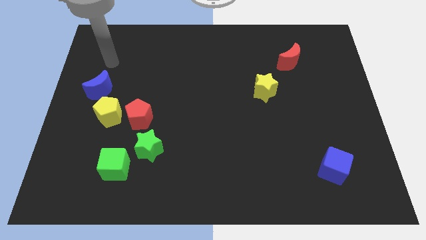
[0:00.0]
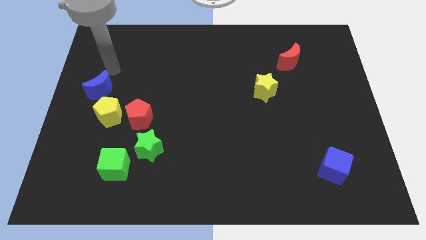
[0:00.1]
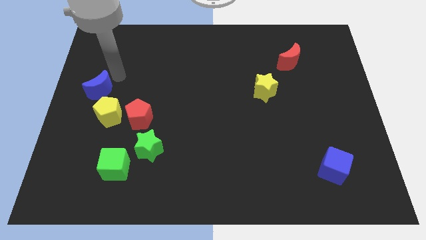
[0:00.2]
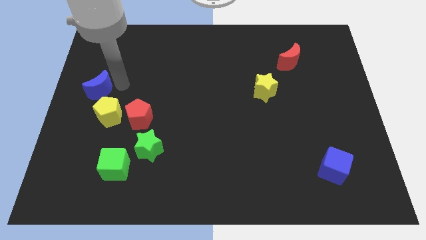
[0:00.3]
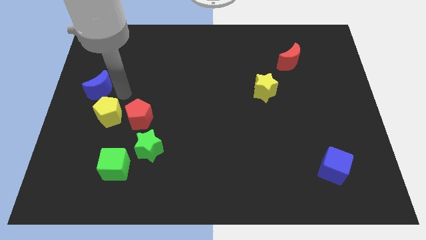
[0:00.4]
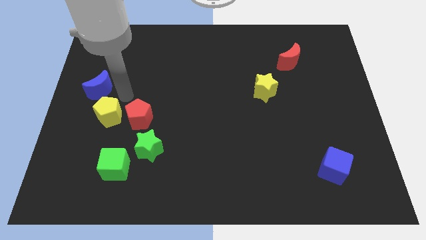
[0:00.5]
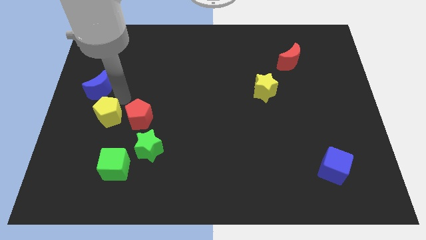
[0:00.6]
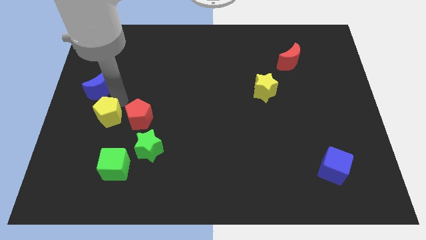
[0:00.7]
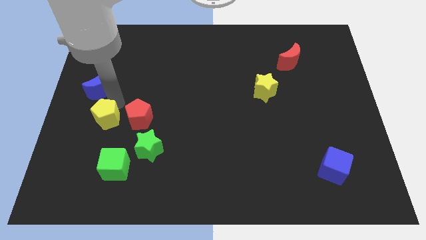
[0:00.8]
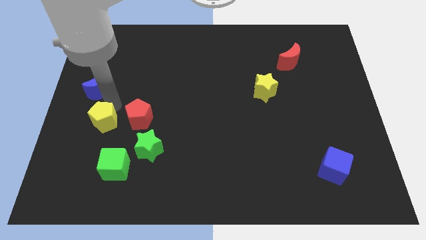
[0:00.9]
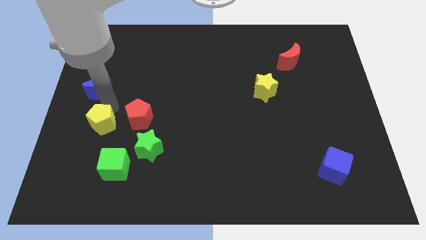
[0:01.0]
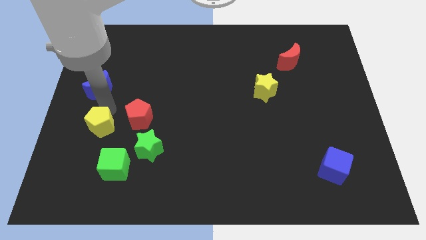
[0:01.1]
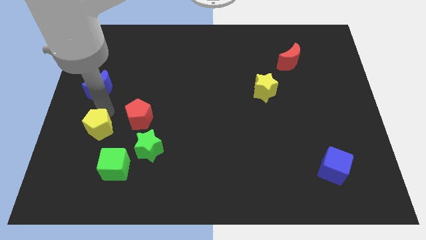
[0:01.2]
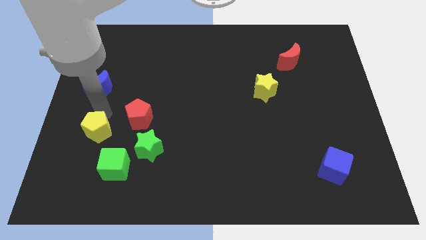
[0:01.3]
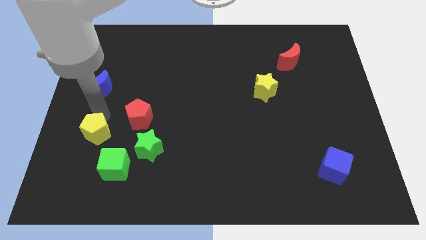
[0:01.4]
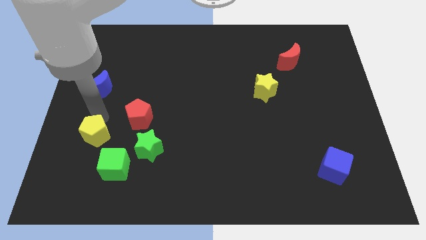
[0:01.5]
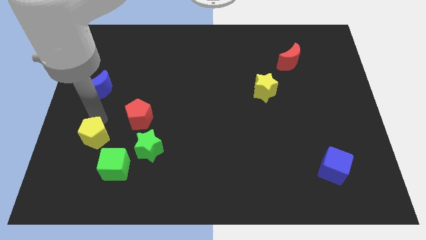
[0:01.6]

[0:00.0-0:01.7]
separate the yellow pentagon from the red pentagon and blue moon

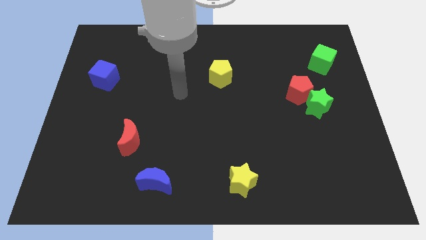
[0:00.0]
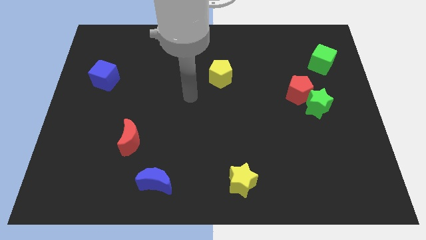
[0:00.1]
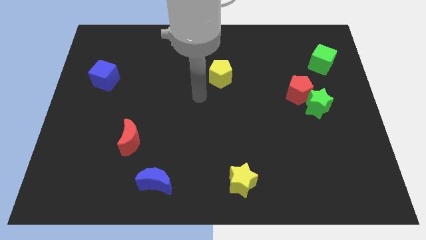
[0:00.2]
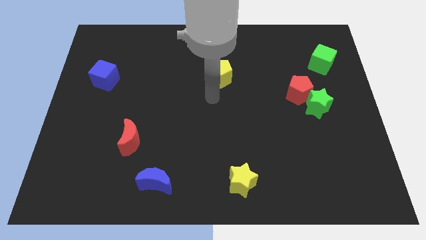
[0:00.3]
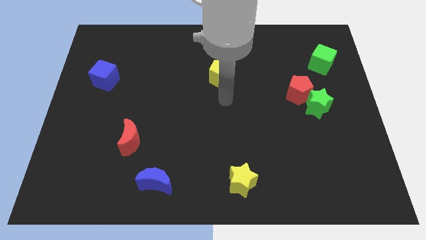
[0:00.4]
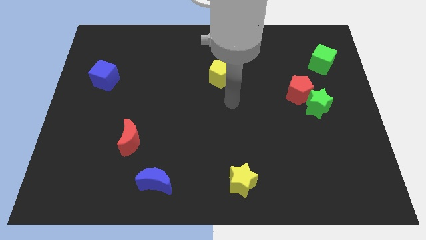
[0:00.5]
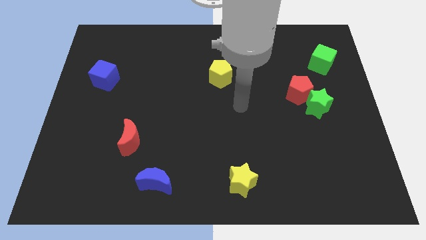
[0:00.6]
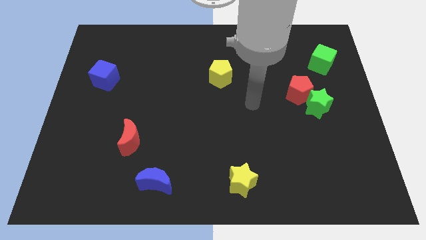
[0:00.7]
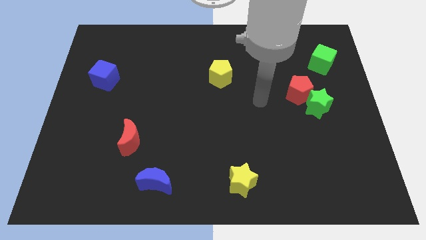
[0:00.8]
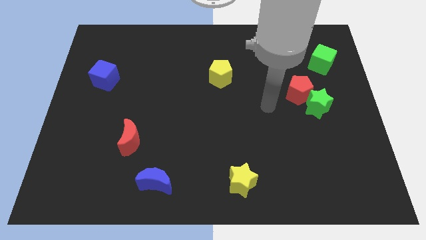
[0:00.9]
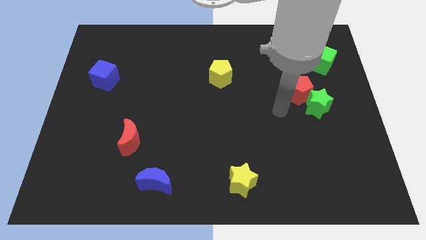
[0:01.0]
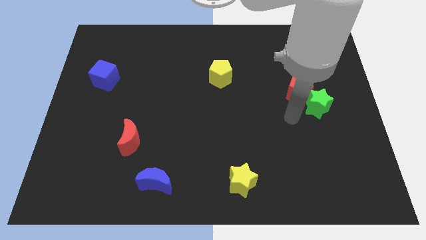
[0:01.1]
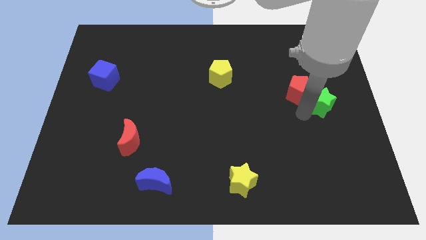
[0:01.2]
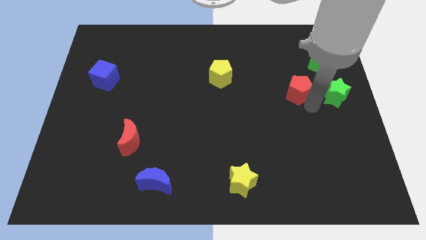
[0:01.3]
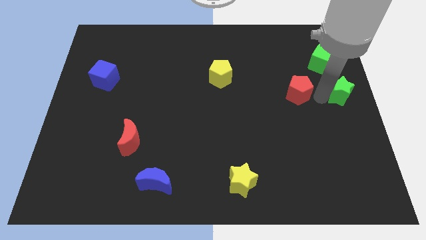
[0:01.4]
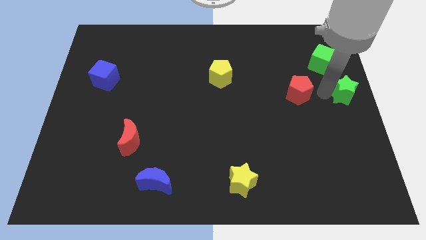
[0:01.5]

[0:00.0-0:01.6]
move the red pentagon away from the green star

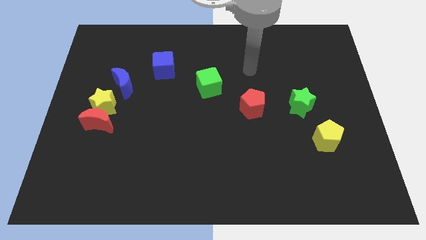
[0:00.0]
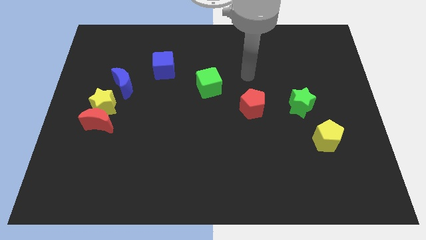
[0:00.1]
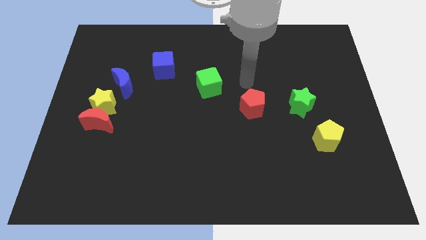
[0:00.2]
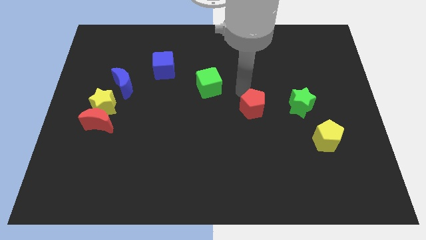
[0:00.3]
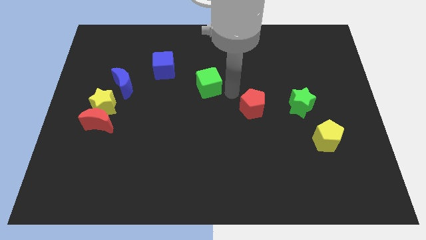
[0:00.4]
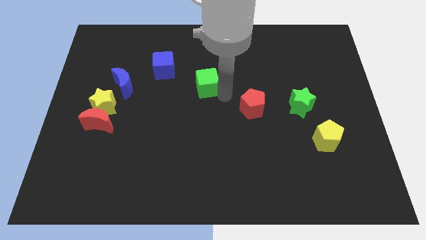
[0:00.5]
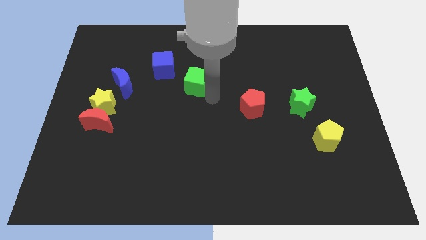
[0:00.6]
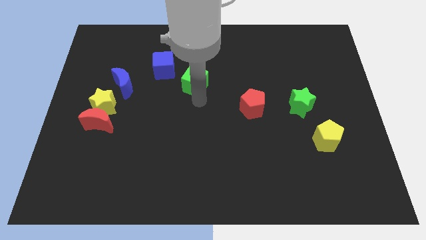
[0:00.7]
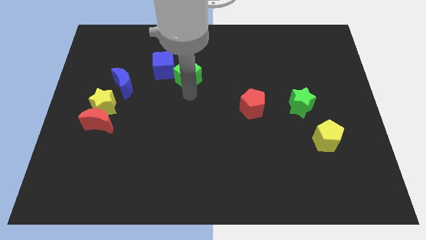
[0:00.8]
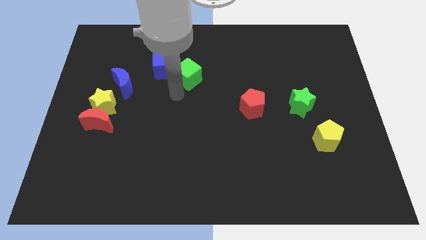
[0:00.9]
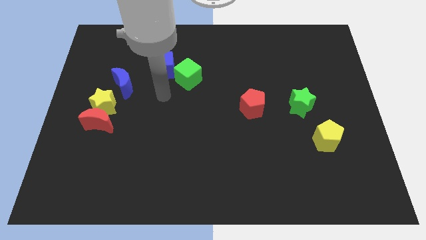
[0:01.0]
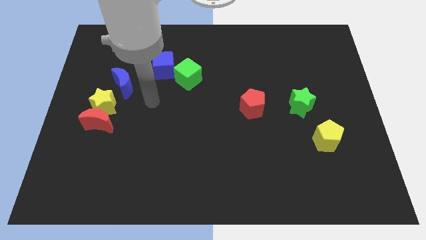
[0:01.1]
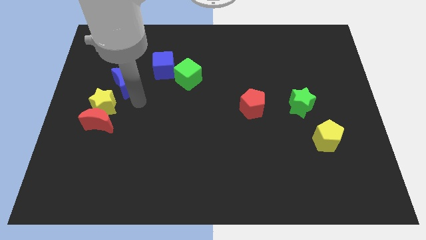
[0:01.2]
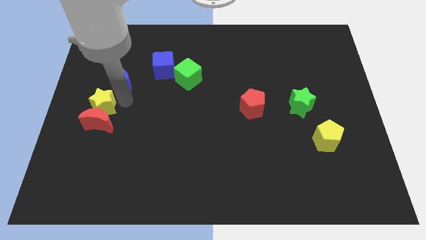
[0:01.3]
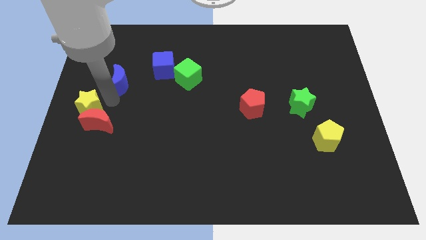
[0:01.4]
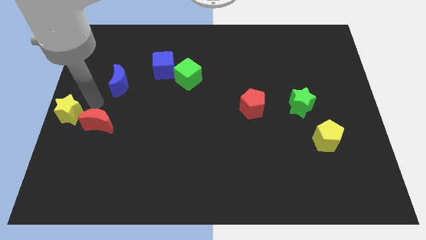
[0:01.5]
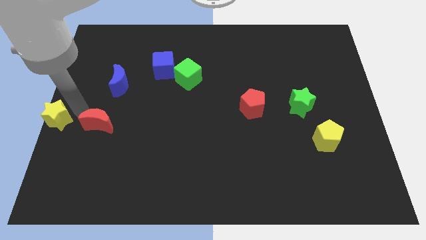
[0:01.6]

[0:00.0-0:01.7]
move the red moon away from the yellow star

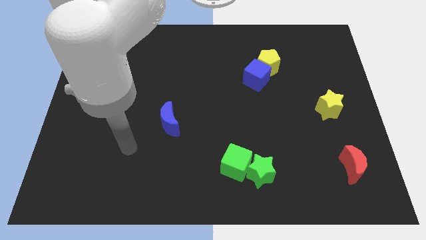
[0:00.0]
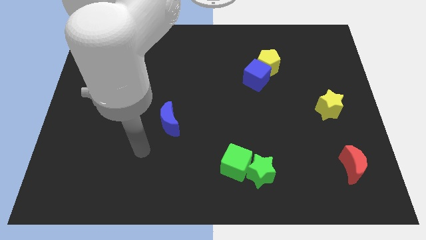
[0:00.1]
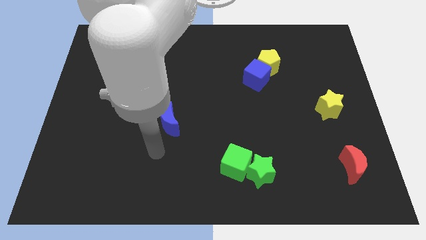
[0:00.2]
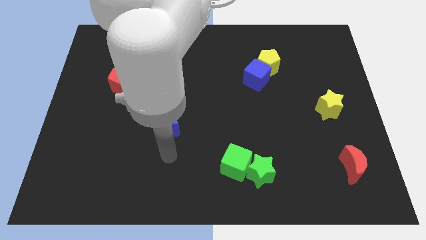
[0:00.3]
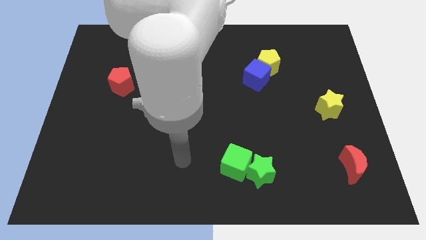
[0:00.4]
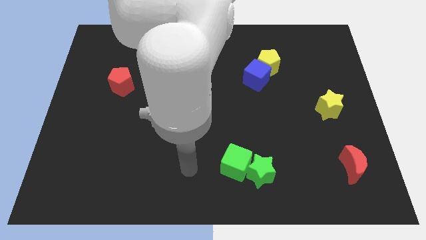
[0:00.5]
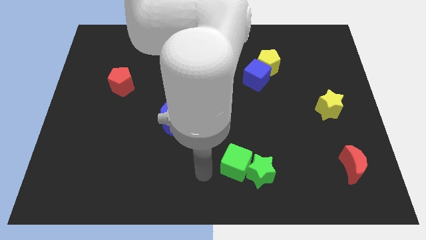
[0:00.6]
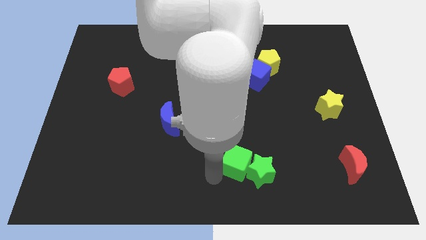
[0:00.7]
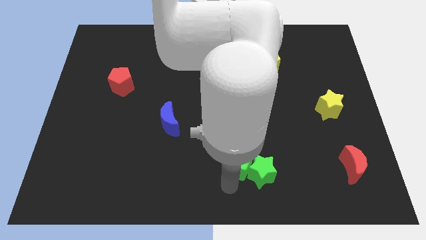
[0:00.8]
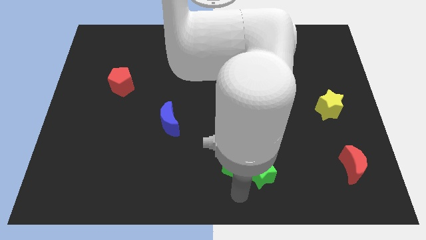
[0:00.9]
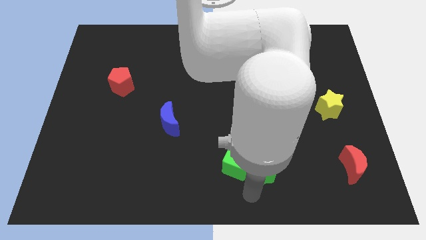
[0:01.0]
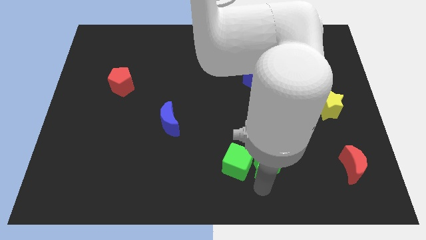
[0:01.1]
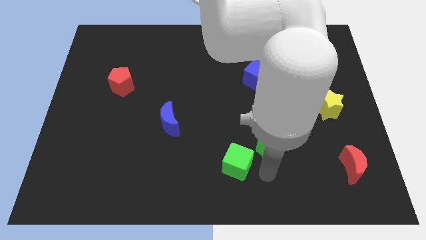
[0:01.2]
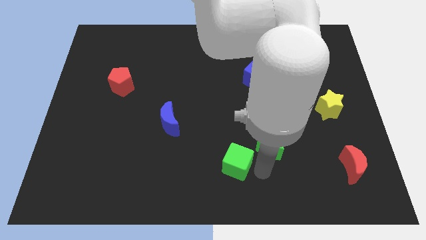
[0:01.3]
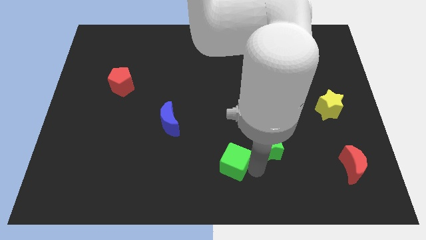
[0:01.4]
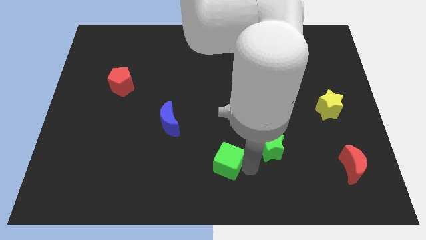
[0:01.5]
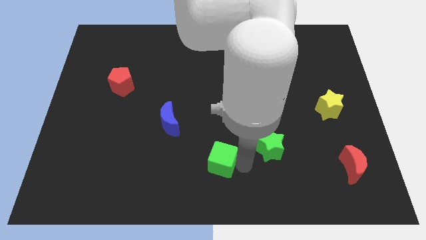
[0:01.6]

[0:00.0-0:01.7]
move the green cube away from the green star

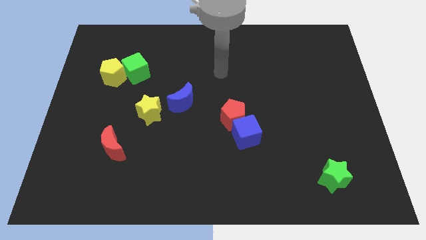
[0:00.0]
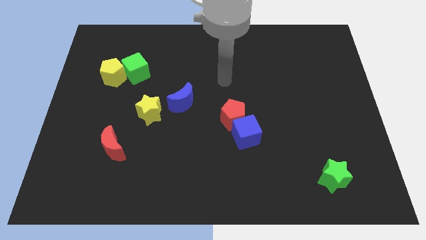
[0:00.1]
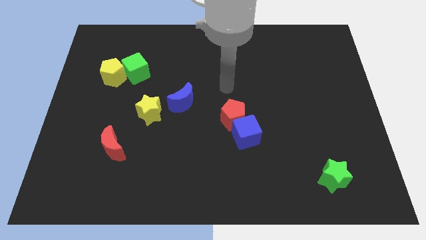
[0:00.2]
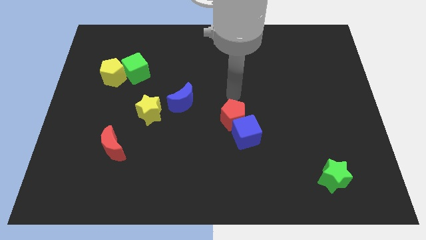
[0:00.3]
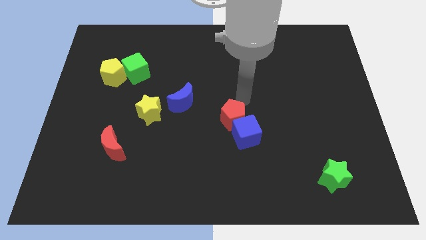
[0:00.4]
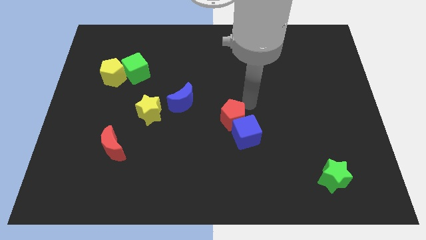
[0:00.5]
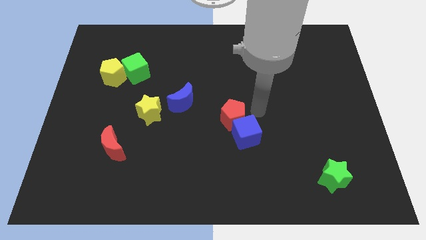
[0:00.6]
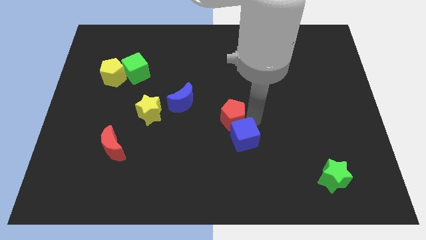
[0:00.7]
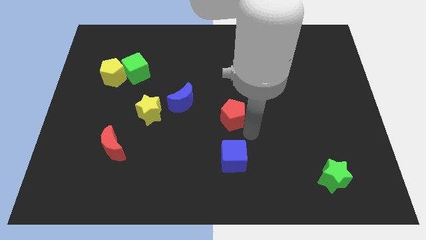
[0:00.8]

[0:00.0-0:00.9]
pull the red pentagon apart from the blue cube

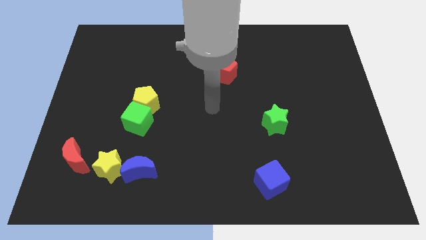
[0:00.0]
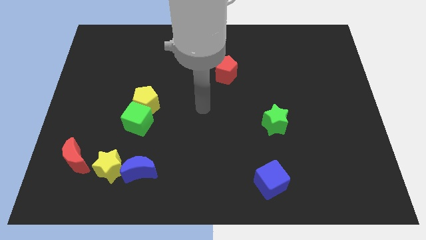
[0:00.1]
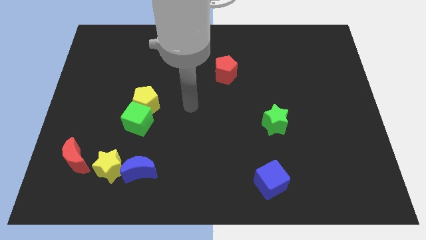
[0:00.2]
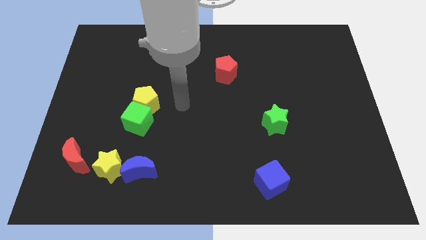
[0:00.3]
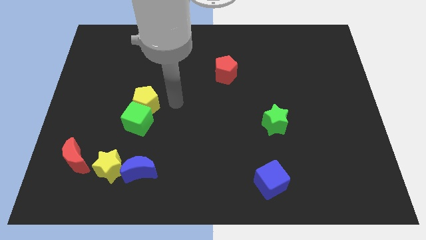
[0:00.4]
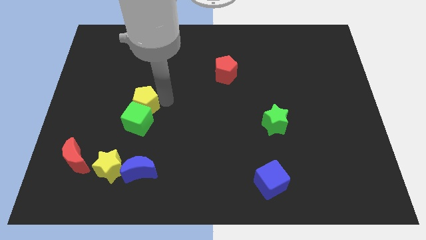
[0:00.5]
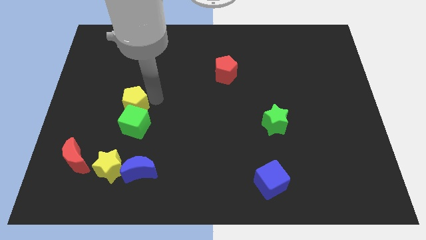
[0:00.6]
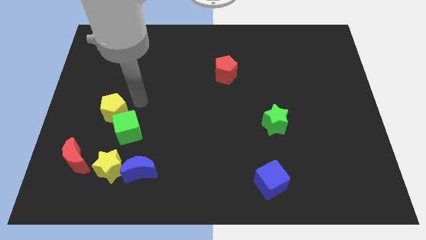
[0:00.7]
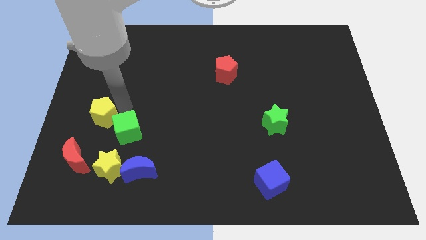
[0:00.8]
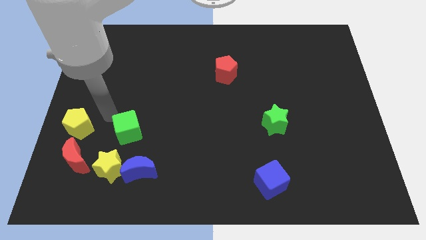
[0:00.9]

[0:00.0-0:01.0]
separate the green cube from the yellow pentagon

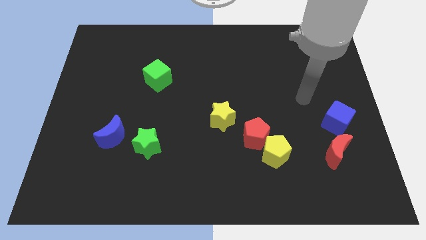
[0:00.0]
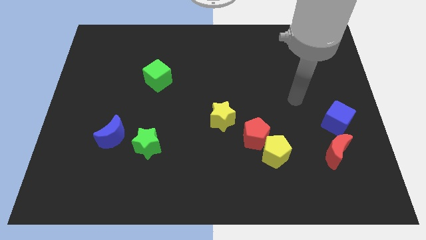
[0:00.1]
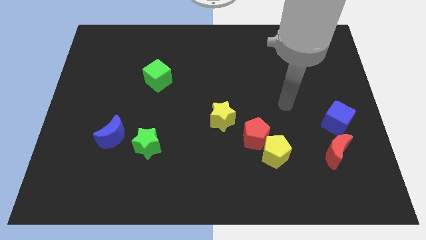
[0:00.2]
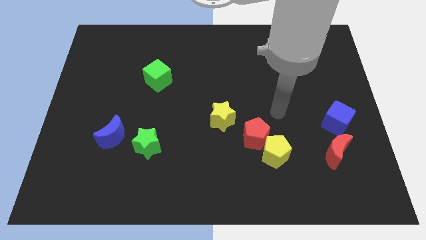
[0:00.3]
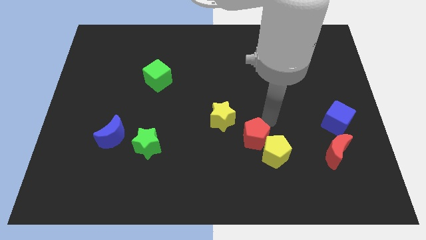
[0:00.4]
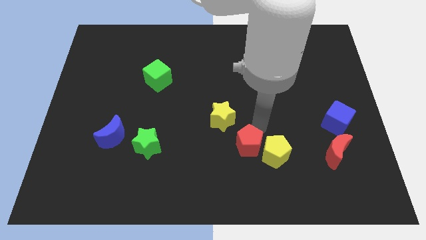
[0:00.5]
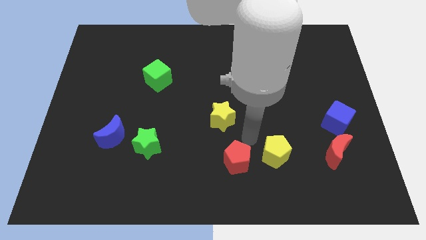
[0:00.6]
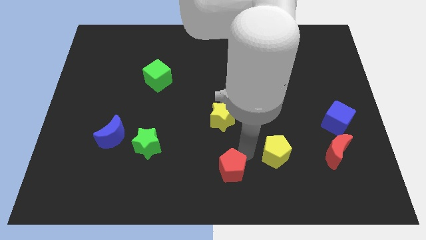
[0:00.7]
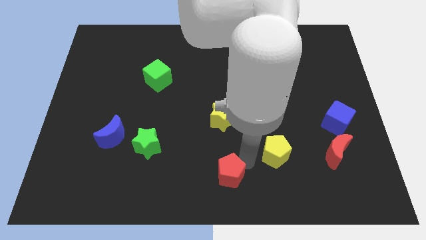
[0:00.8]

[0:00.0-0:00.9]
move the yellow pentagon away from the red pentagon
